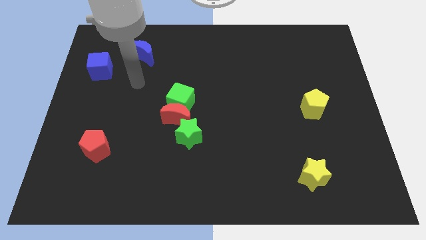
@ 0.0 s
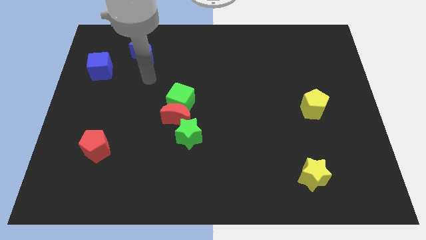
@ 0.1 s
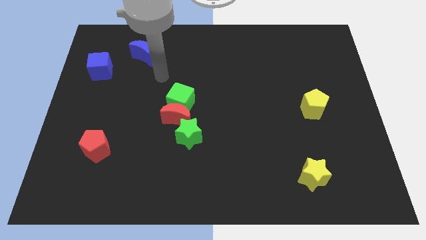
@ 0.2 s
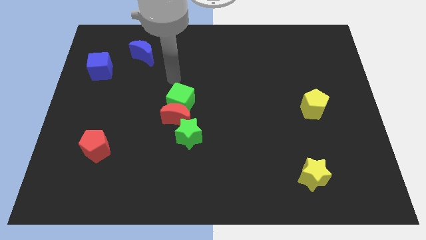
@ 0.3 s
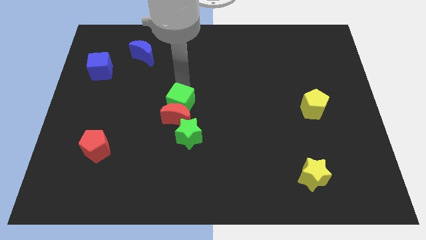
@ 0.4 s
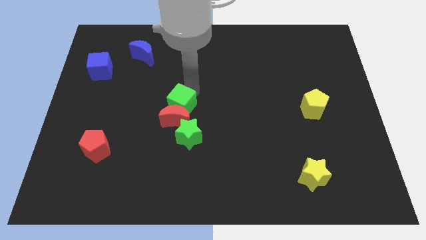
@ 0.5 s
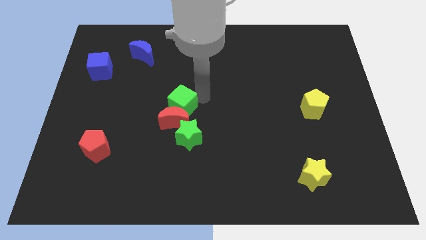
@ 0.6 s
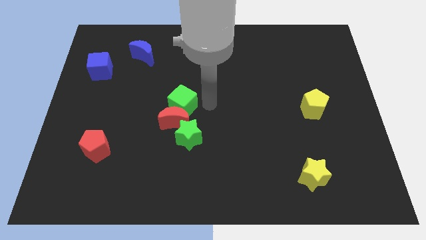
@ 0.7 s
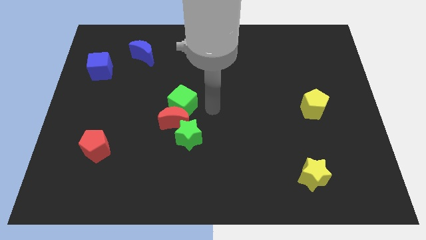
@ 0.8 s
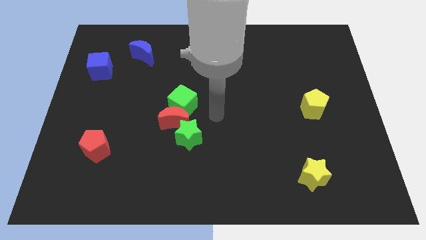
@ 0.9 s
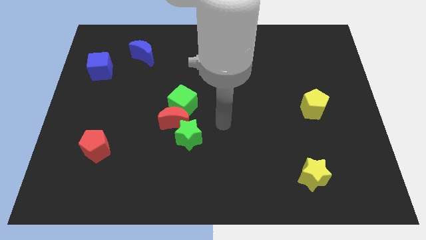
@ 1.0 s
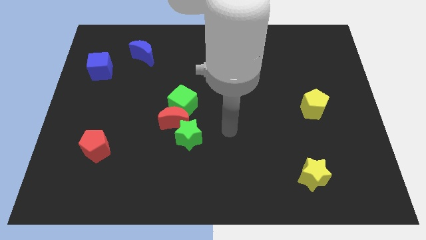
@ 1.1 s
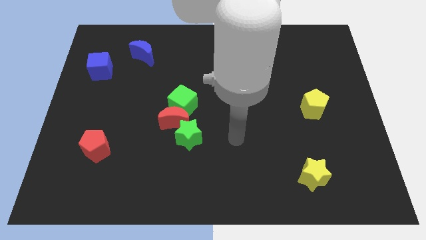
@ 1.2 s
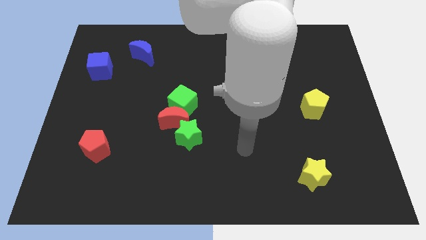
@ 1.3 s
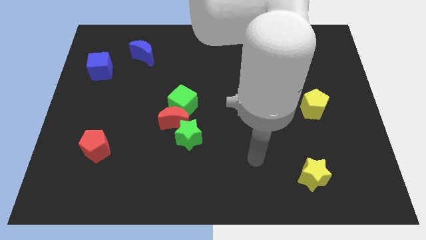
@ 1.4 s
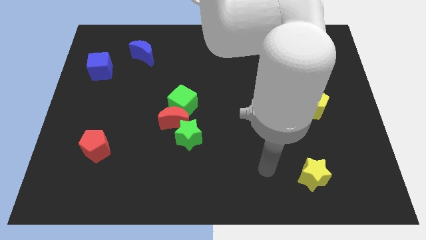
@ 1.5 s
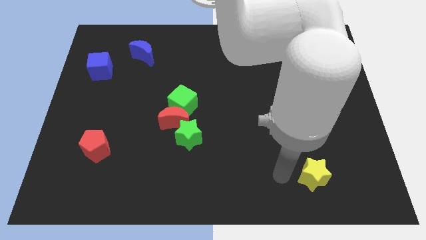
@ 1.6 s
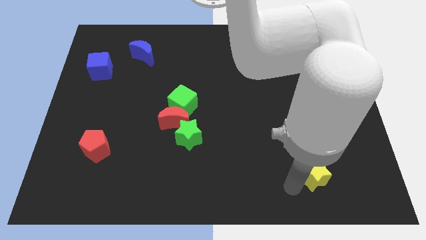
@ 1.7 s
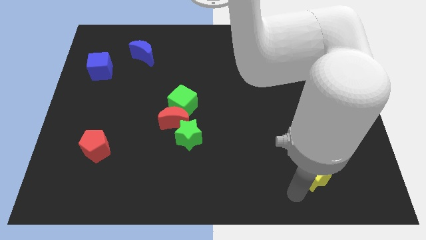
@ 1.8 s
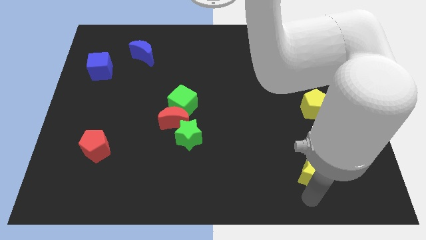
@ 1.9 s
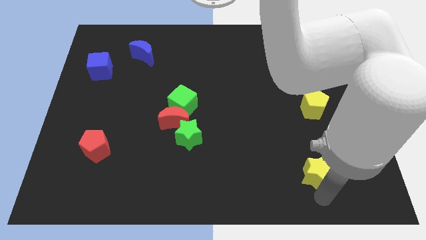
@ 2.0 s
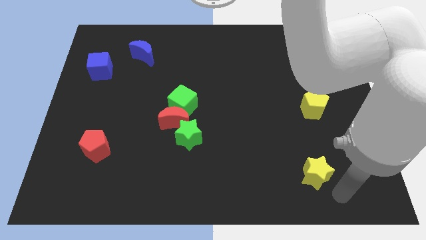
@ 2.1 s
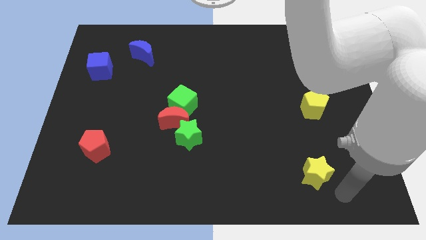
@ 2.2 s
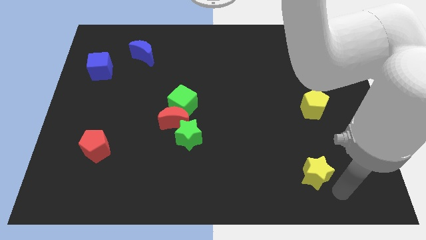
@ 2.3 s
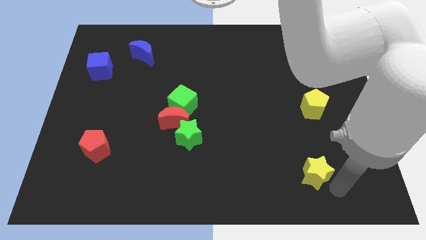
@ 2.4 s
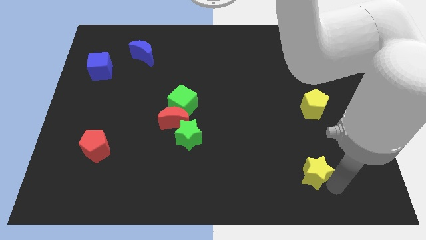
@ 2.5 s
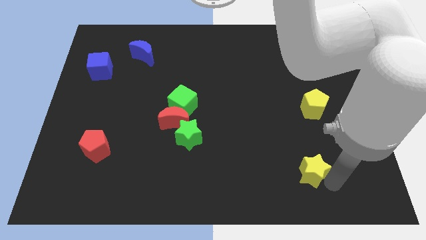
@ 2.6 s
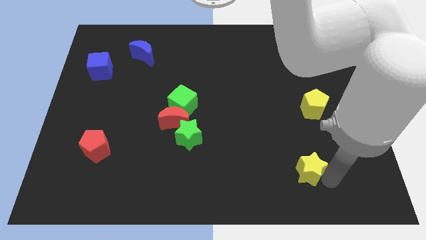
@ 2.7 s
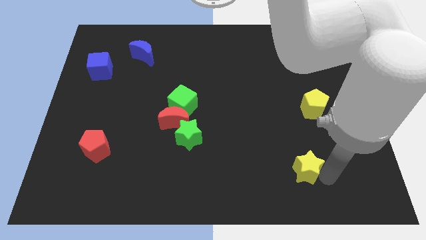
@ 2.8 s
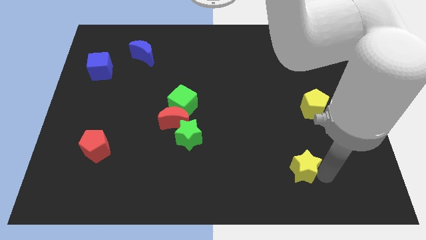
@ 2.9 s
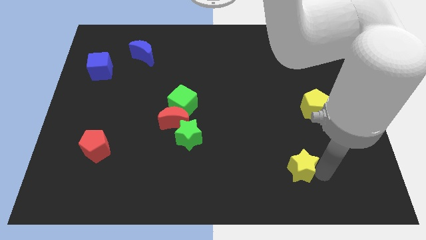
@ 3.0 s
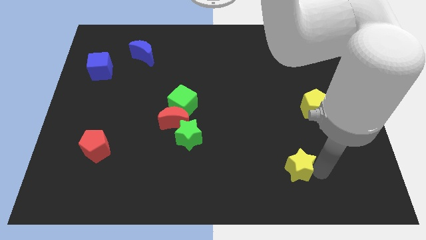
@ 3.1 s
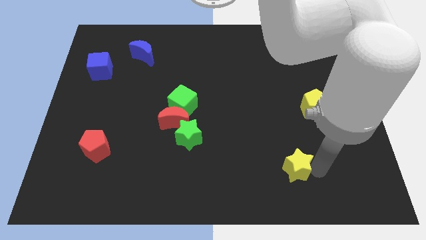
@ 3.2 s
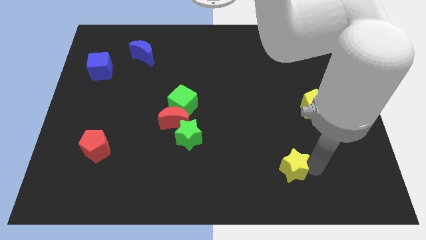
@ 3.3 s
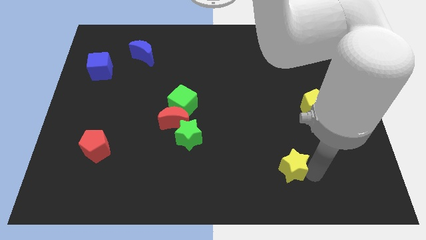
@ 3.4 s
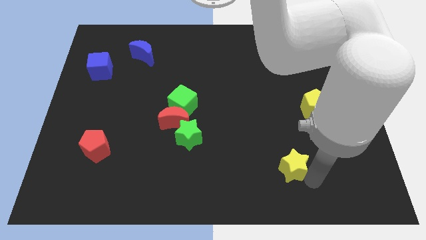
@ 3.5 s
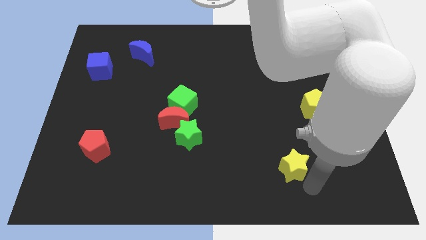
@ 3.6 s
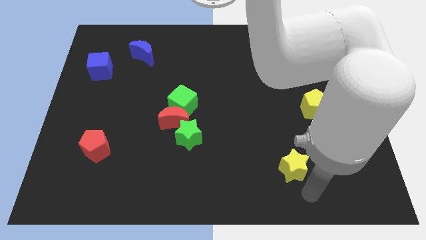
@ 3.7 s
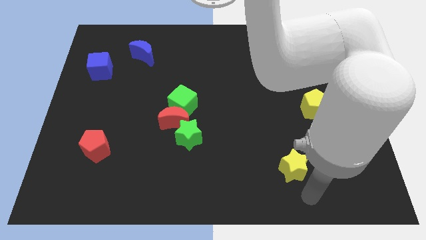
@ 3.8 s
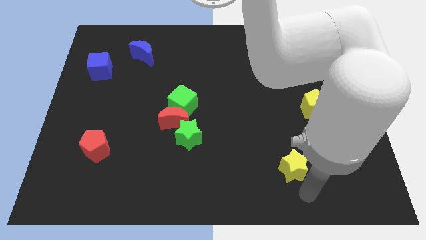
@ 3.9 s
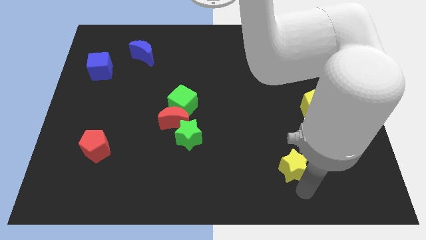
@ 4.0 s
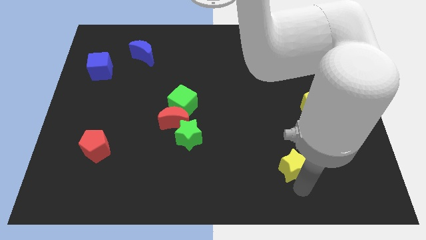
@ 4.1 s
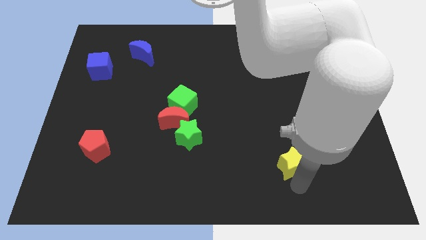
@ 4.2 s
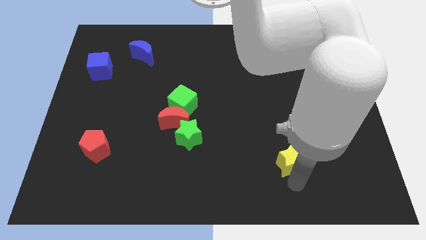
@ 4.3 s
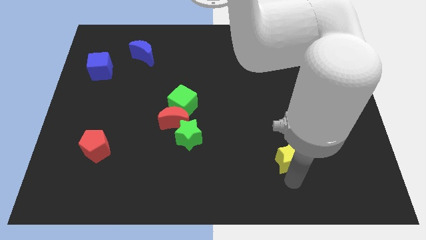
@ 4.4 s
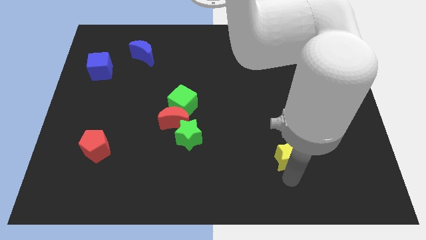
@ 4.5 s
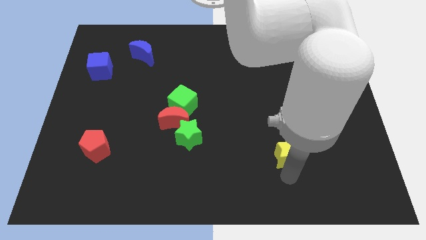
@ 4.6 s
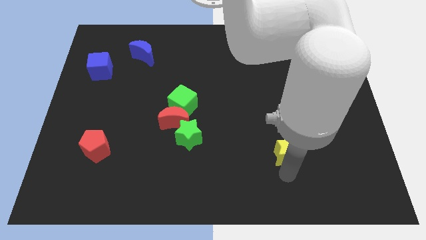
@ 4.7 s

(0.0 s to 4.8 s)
slightly move the yellow star upwards and then left

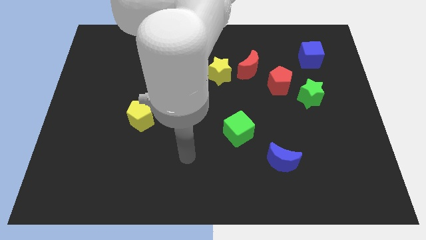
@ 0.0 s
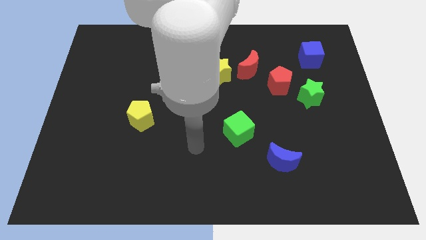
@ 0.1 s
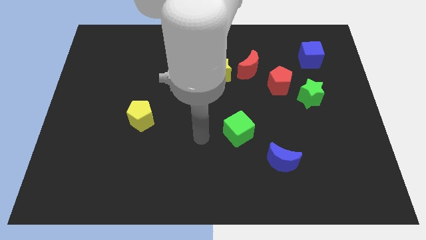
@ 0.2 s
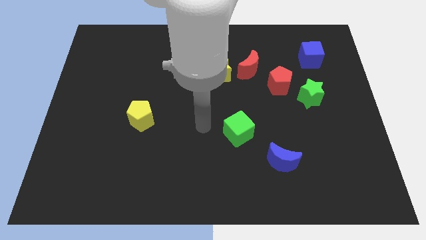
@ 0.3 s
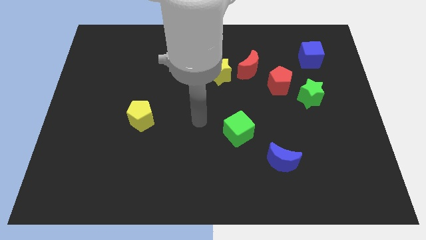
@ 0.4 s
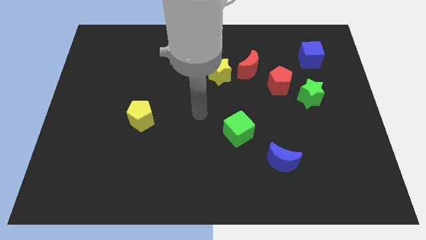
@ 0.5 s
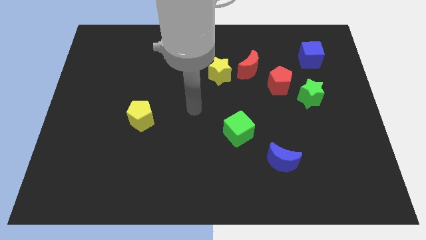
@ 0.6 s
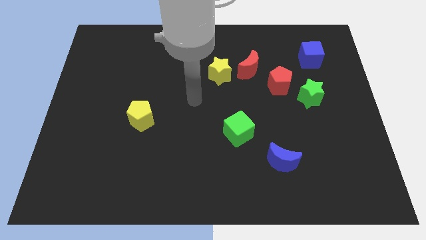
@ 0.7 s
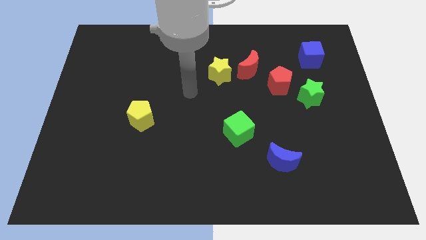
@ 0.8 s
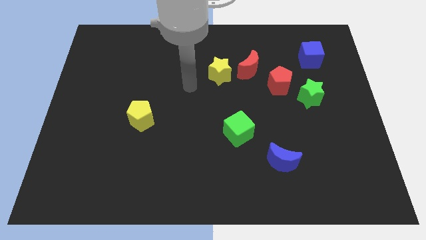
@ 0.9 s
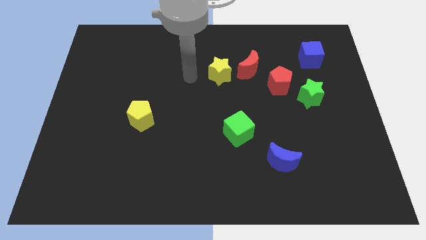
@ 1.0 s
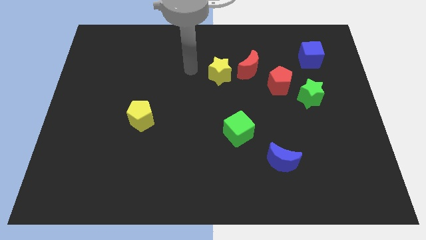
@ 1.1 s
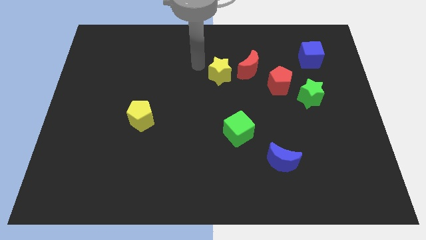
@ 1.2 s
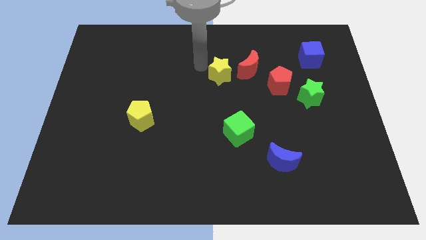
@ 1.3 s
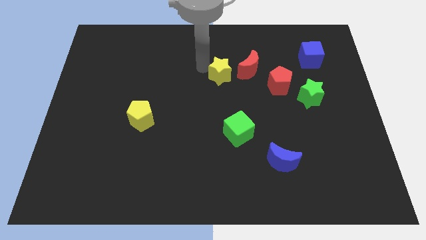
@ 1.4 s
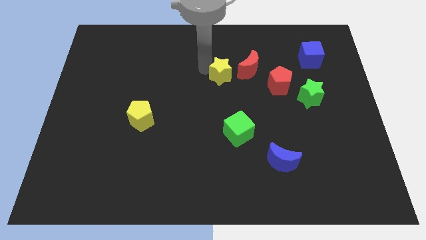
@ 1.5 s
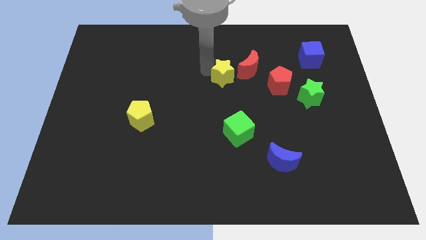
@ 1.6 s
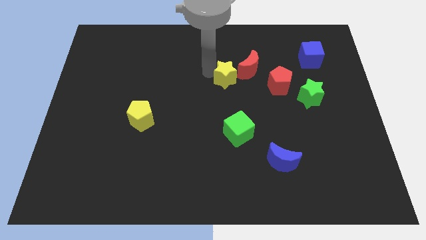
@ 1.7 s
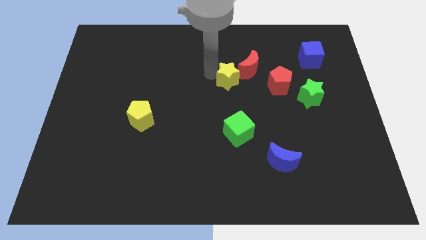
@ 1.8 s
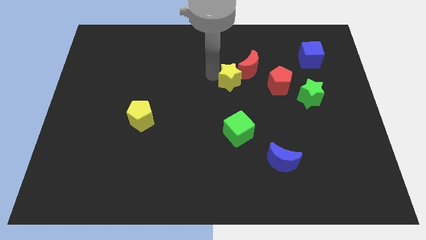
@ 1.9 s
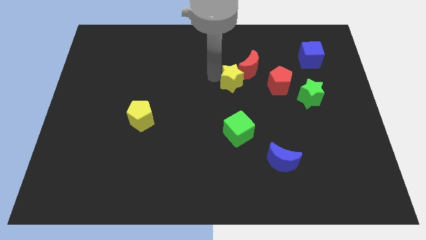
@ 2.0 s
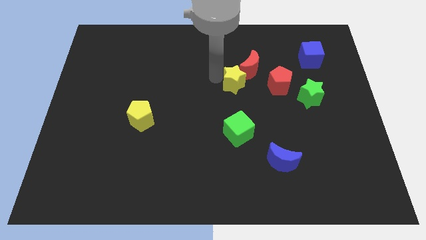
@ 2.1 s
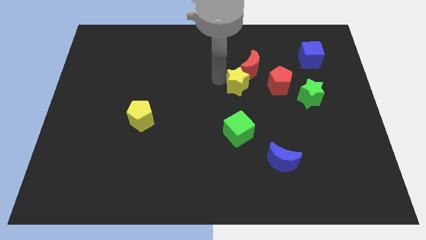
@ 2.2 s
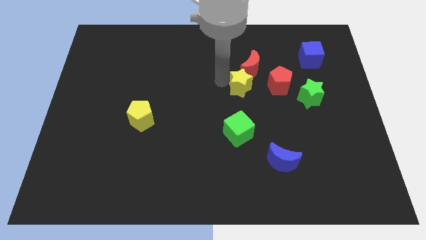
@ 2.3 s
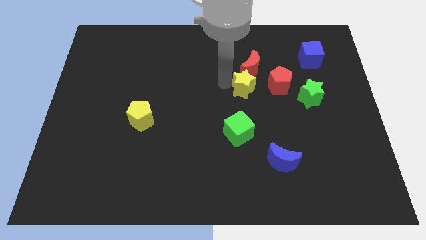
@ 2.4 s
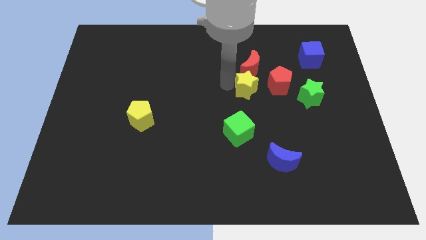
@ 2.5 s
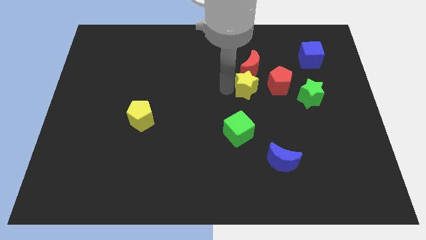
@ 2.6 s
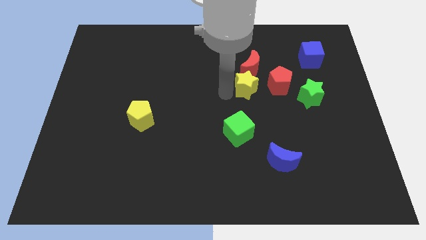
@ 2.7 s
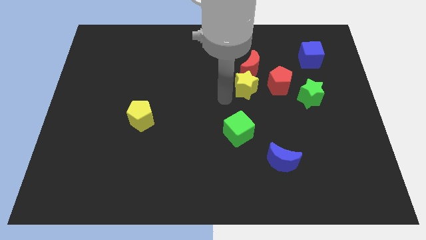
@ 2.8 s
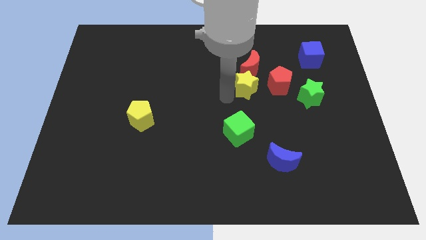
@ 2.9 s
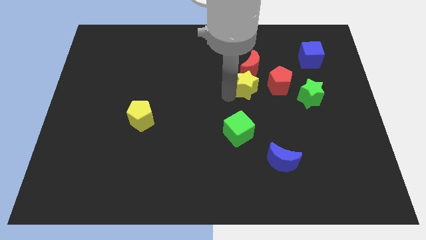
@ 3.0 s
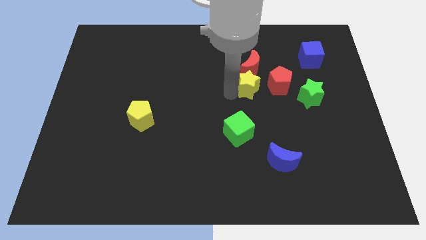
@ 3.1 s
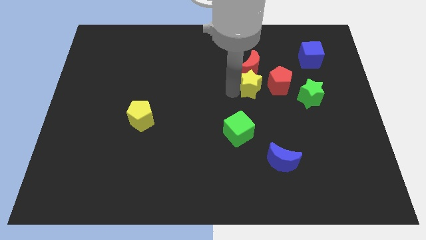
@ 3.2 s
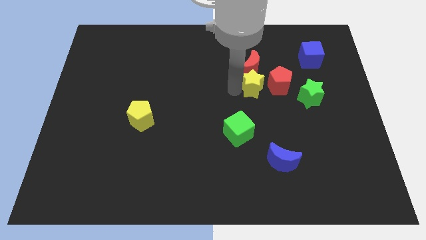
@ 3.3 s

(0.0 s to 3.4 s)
push the yellow star right a bit
